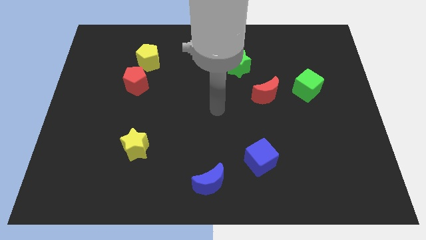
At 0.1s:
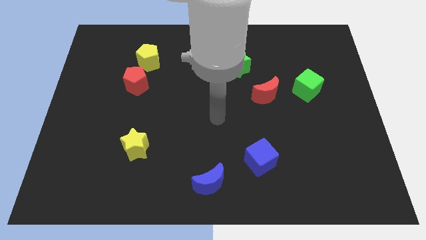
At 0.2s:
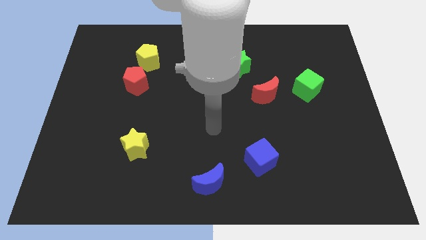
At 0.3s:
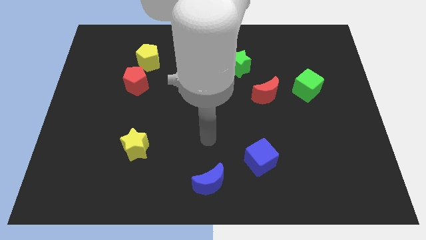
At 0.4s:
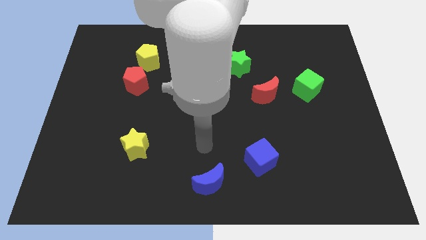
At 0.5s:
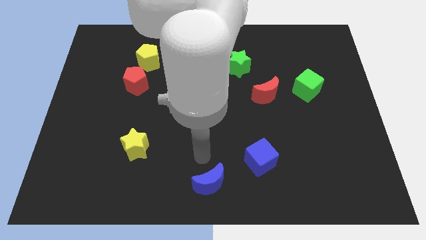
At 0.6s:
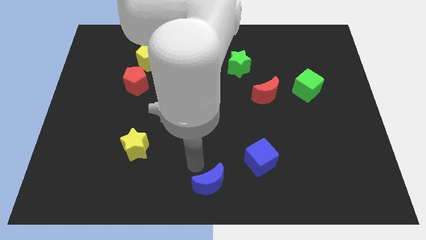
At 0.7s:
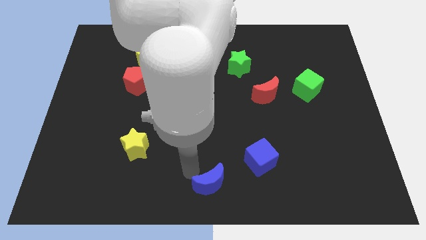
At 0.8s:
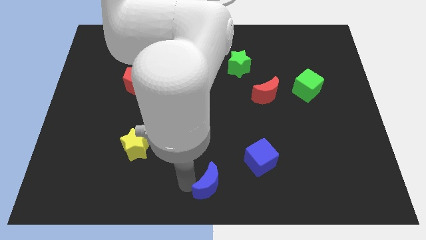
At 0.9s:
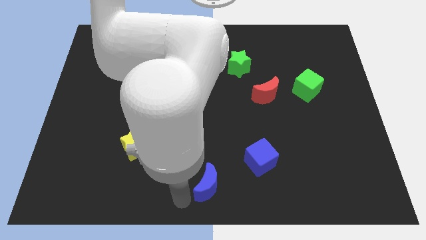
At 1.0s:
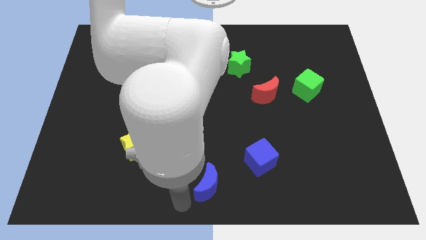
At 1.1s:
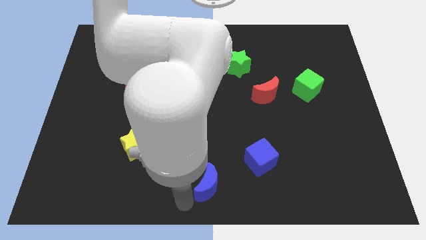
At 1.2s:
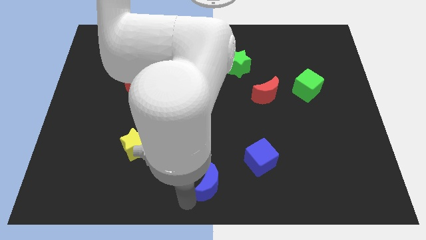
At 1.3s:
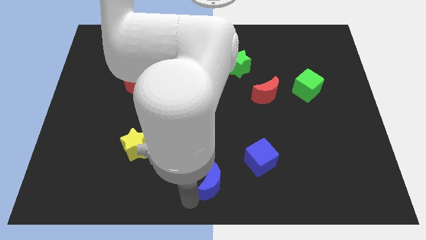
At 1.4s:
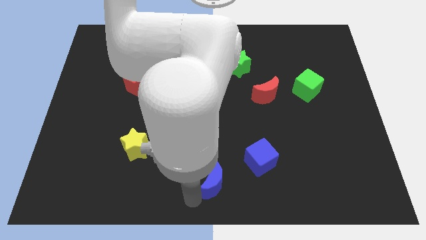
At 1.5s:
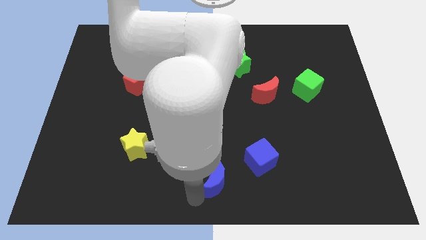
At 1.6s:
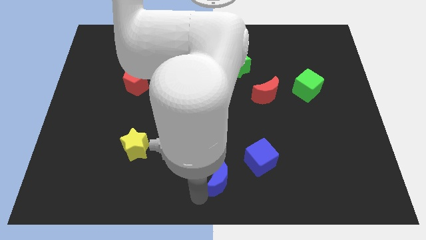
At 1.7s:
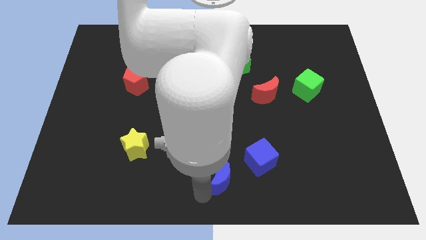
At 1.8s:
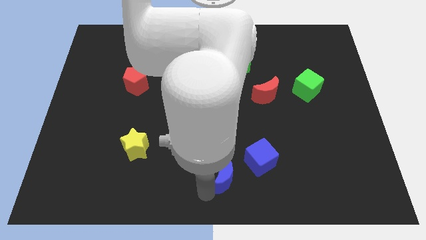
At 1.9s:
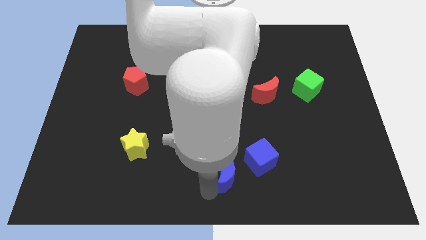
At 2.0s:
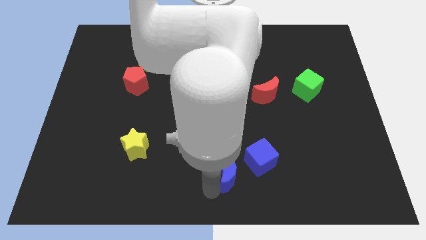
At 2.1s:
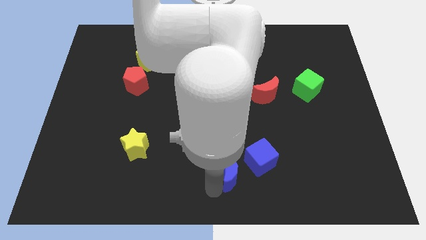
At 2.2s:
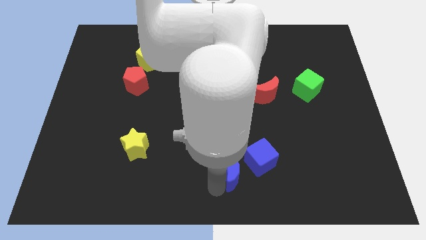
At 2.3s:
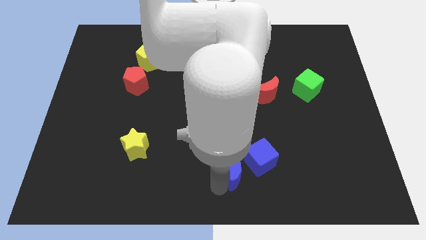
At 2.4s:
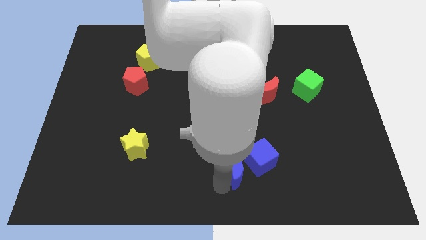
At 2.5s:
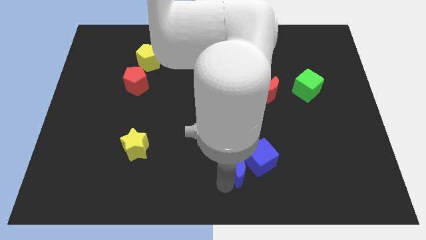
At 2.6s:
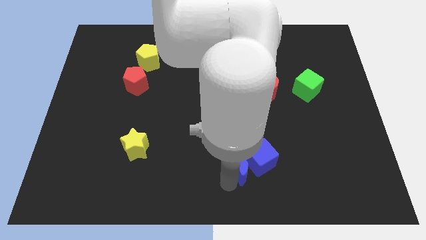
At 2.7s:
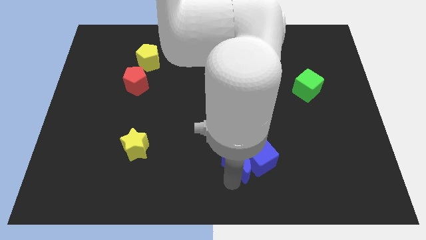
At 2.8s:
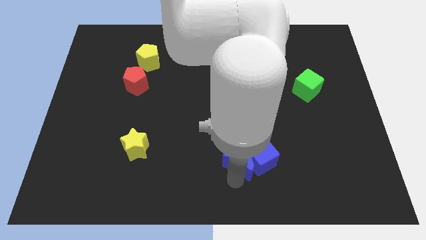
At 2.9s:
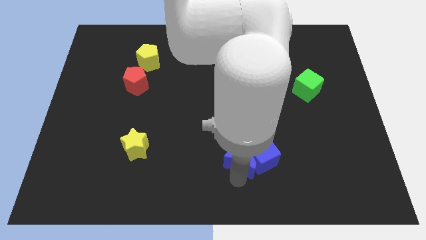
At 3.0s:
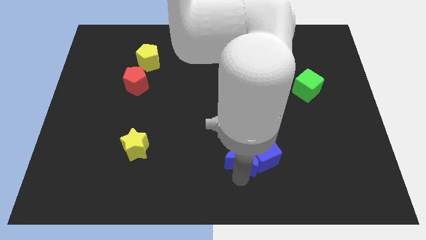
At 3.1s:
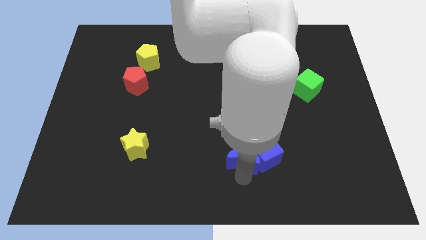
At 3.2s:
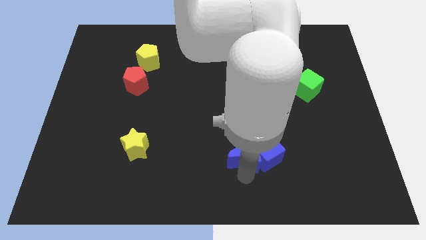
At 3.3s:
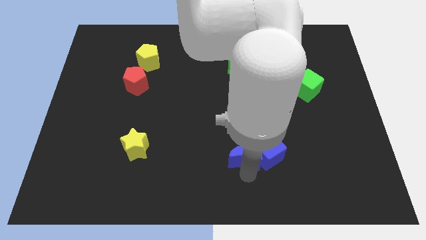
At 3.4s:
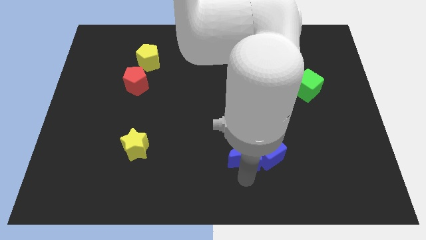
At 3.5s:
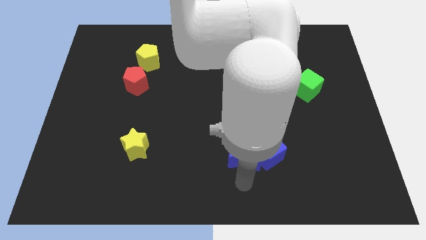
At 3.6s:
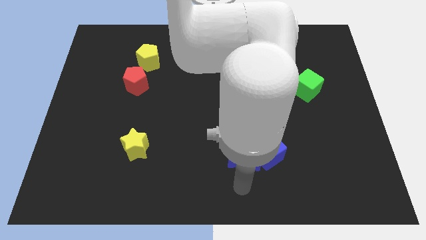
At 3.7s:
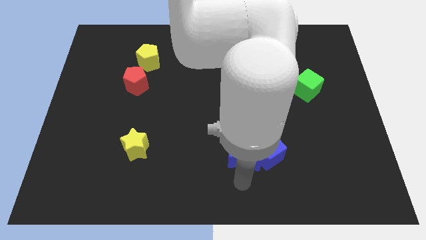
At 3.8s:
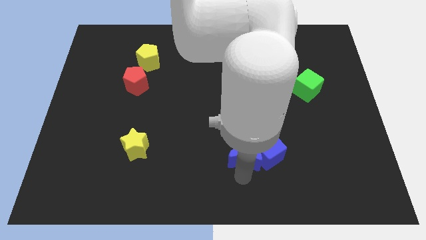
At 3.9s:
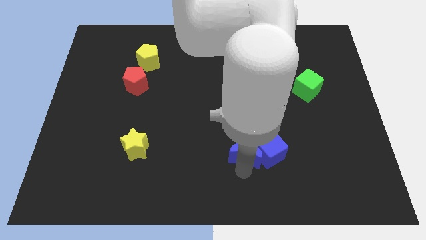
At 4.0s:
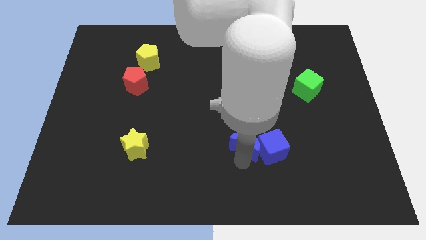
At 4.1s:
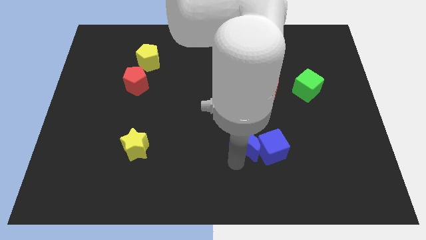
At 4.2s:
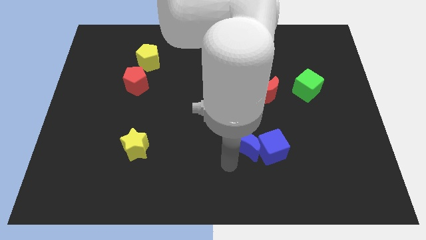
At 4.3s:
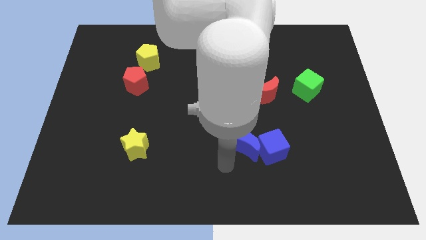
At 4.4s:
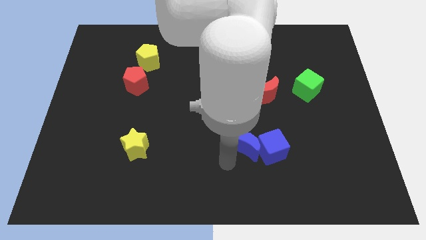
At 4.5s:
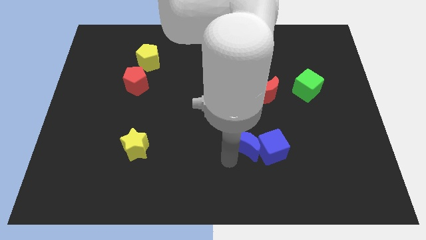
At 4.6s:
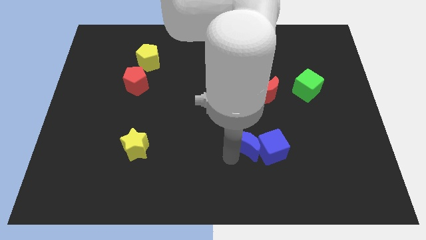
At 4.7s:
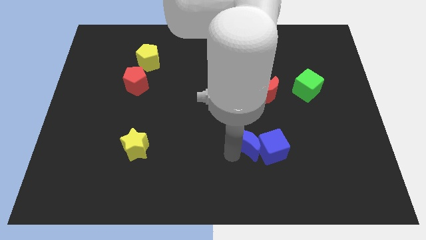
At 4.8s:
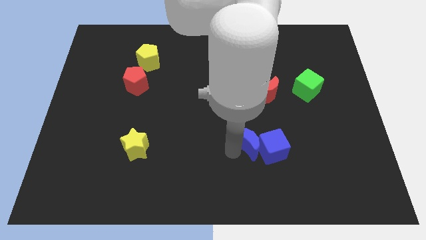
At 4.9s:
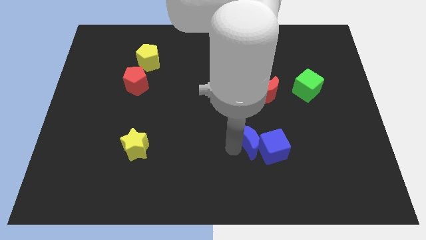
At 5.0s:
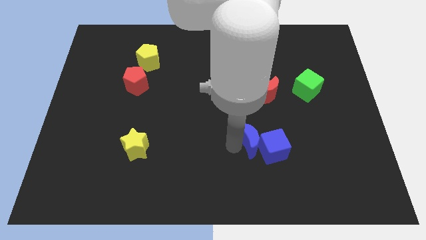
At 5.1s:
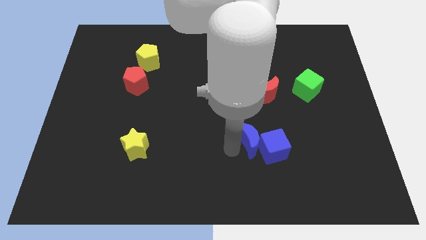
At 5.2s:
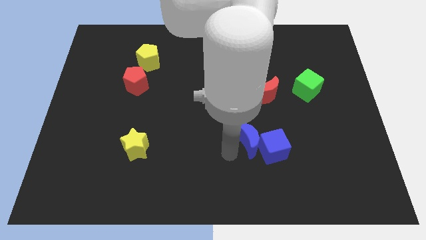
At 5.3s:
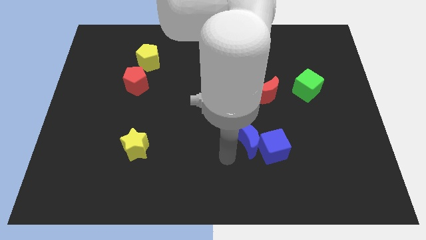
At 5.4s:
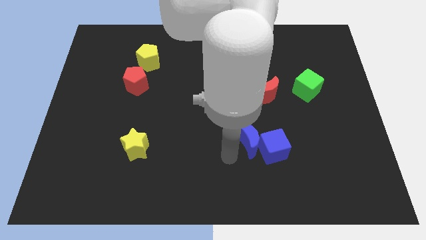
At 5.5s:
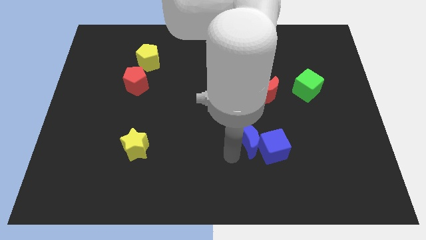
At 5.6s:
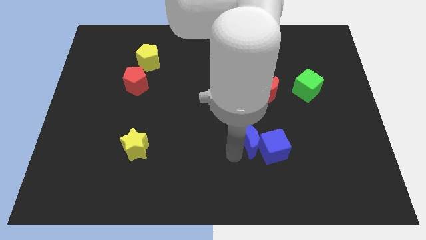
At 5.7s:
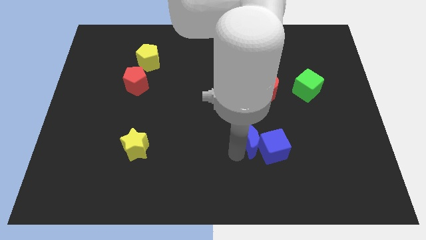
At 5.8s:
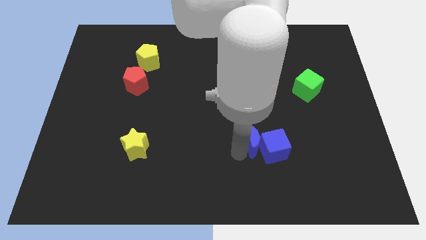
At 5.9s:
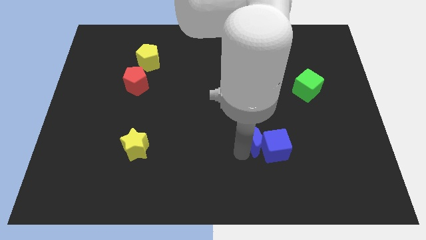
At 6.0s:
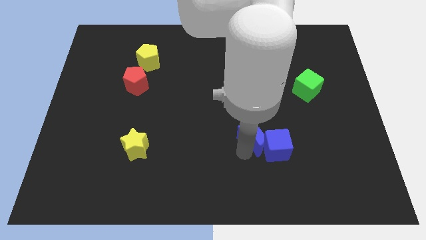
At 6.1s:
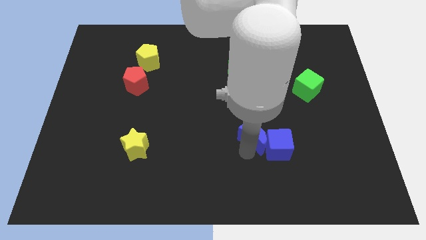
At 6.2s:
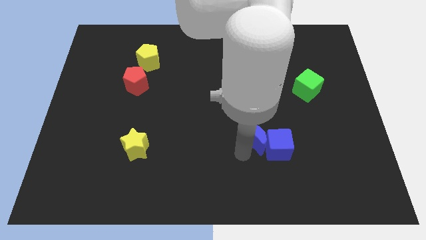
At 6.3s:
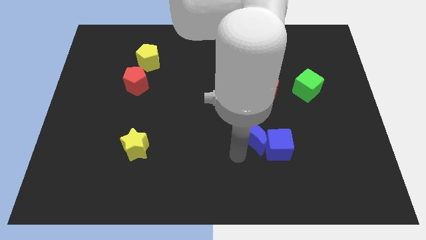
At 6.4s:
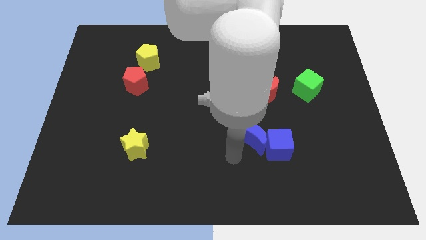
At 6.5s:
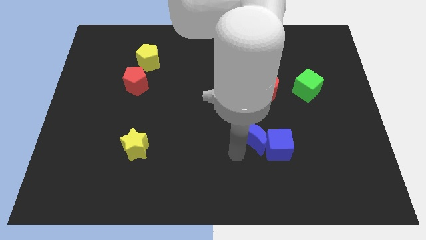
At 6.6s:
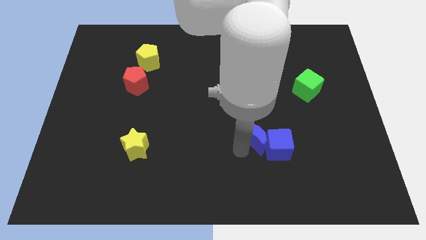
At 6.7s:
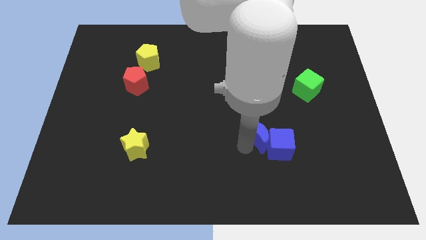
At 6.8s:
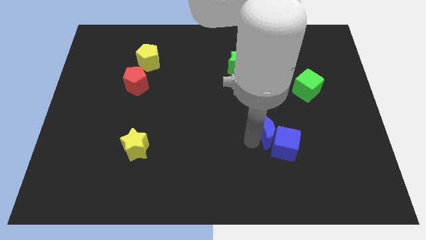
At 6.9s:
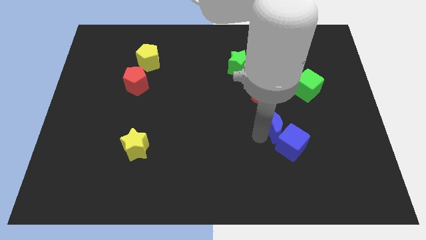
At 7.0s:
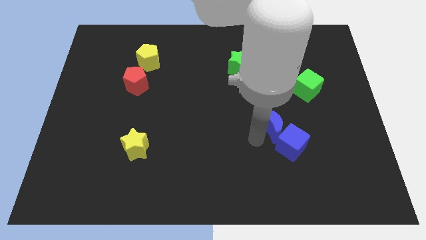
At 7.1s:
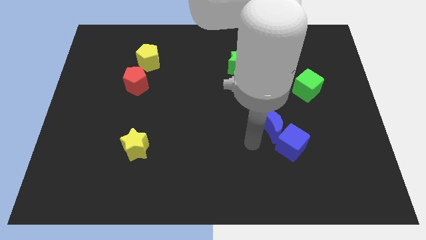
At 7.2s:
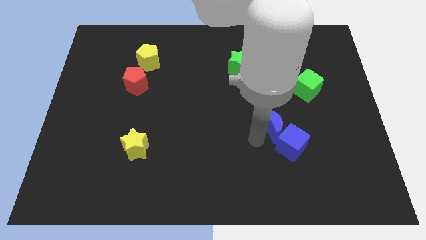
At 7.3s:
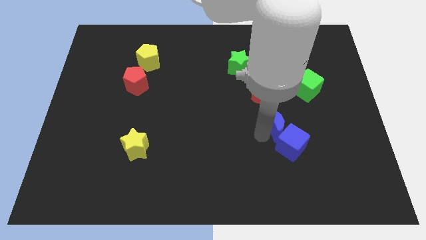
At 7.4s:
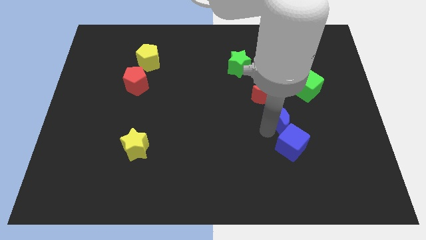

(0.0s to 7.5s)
put the blue moon to the bottom right of the red moon

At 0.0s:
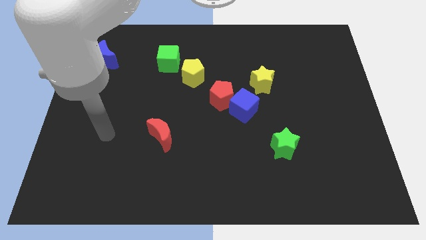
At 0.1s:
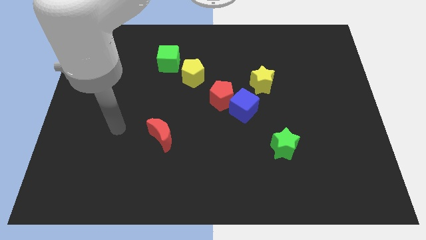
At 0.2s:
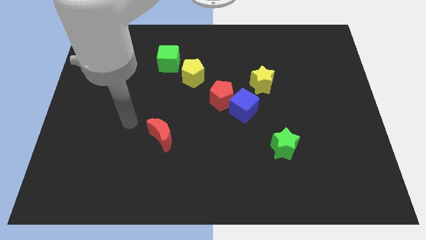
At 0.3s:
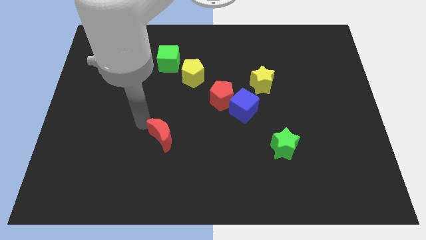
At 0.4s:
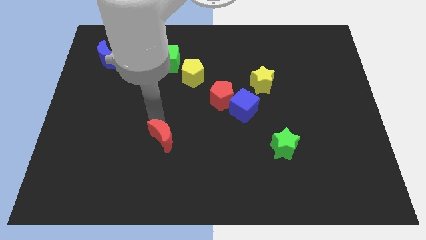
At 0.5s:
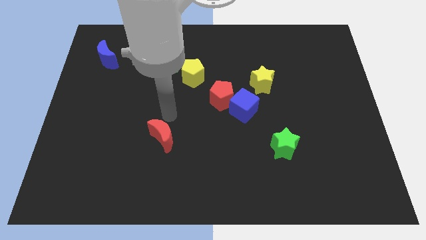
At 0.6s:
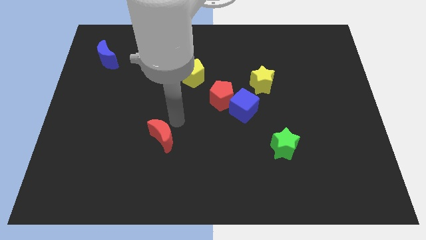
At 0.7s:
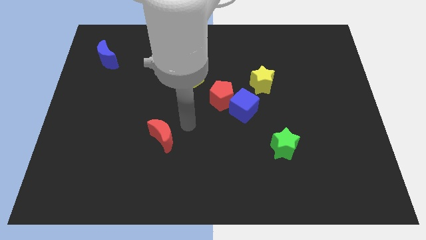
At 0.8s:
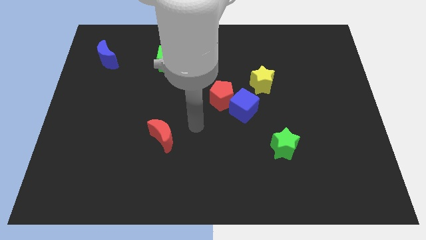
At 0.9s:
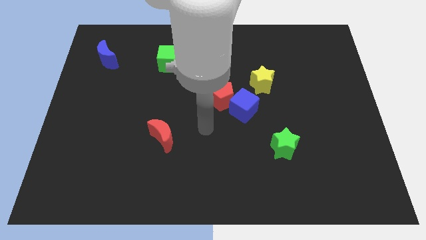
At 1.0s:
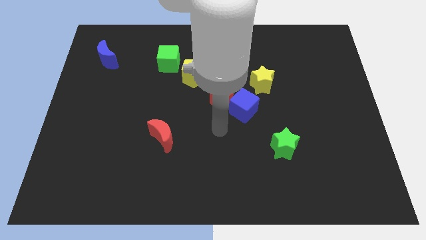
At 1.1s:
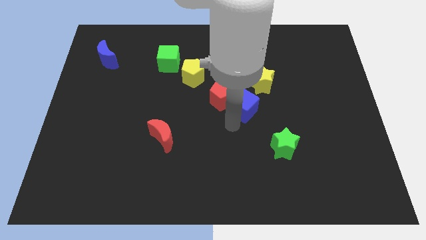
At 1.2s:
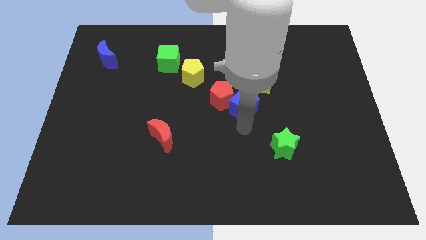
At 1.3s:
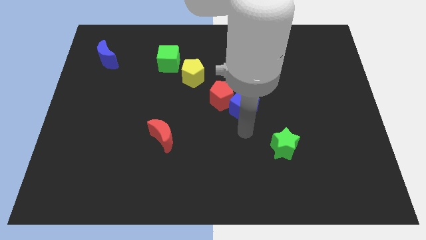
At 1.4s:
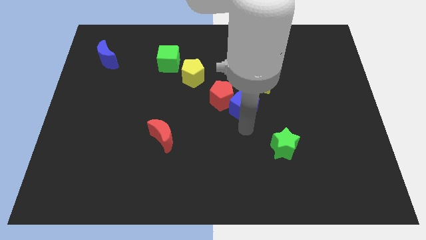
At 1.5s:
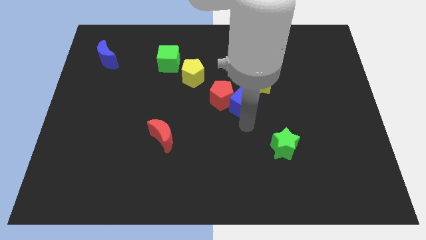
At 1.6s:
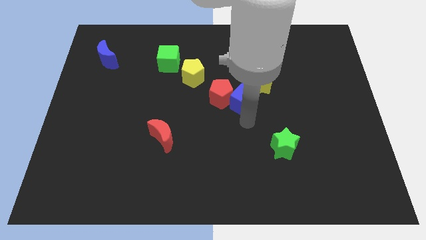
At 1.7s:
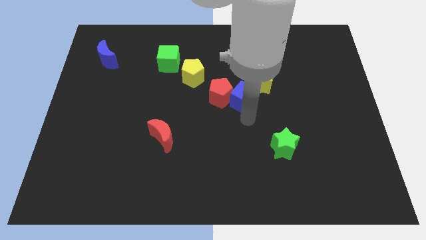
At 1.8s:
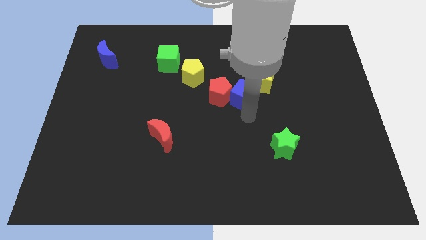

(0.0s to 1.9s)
slide the blue cube diagonally up and to the right of the red pentagon
